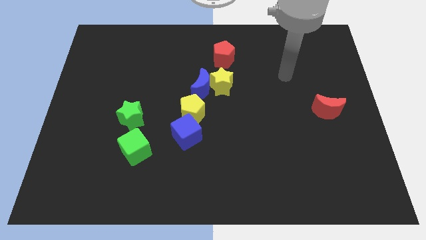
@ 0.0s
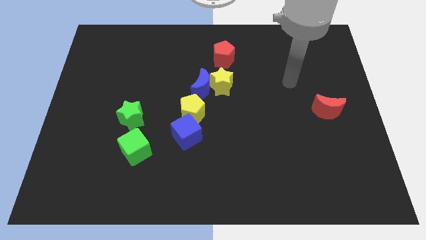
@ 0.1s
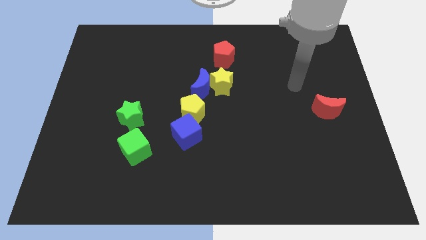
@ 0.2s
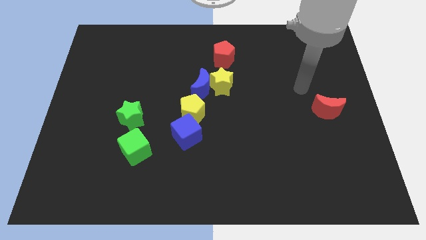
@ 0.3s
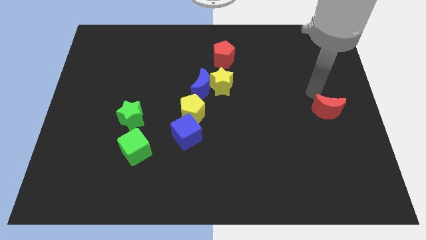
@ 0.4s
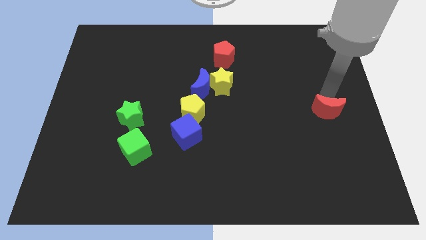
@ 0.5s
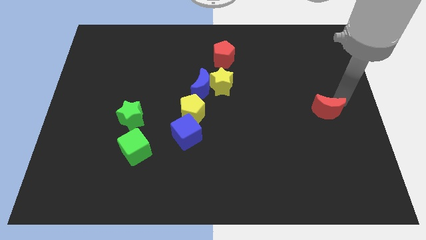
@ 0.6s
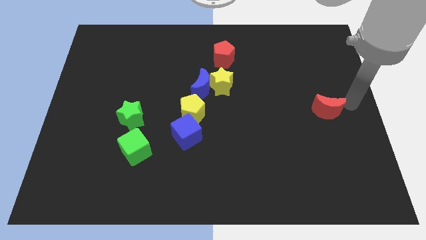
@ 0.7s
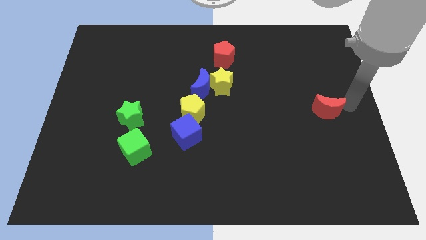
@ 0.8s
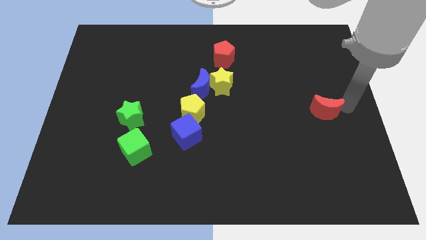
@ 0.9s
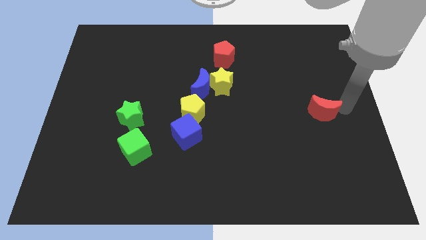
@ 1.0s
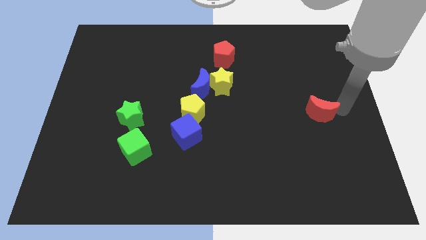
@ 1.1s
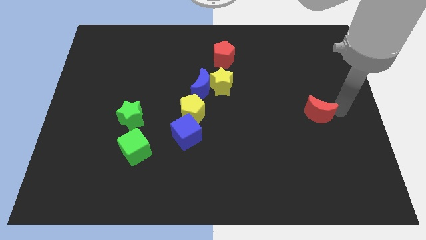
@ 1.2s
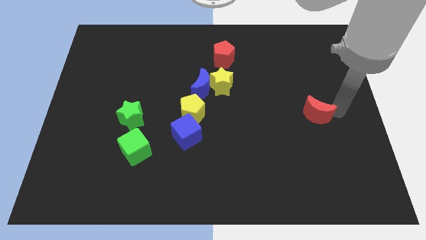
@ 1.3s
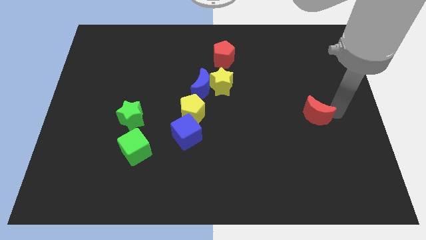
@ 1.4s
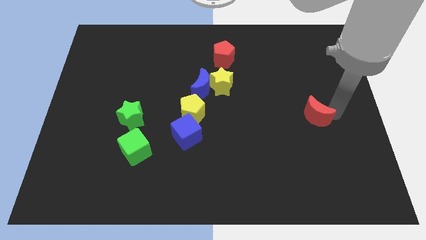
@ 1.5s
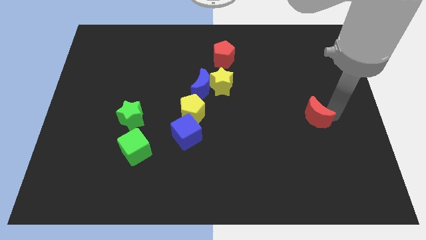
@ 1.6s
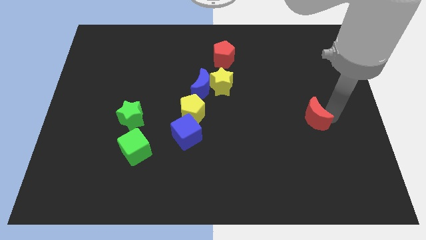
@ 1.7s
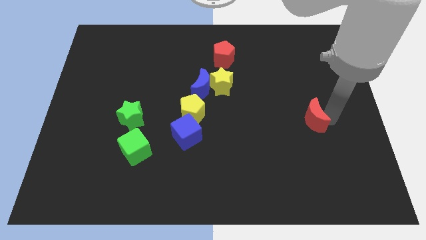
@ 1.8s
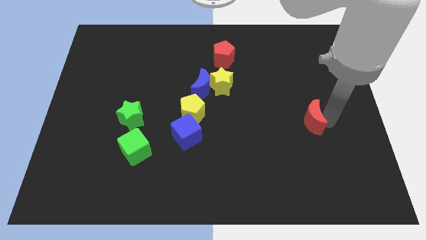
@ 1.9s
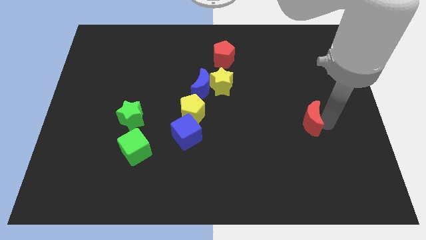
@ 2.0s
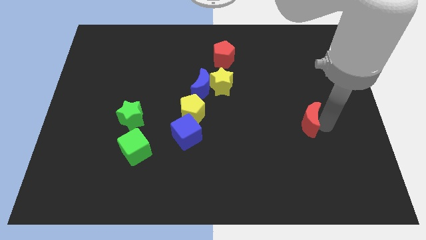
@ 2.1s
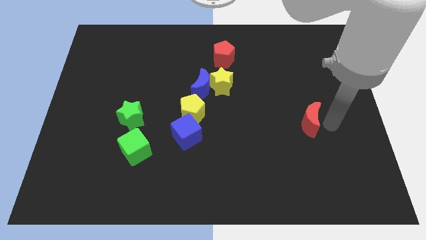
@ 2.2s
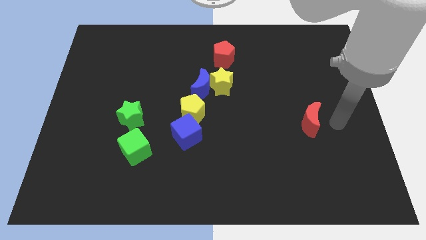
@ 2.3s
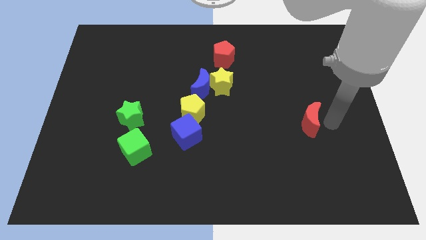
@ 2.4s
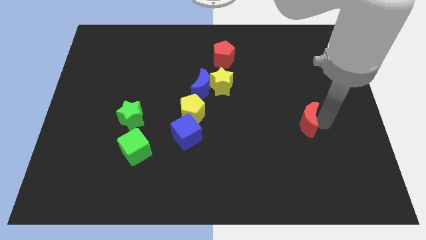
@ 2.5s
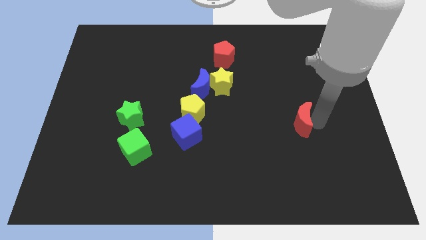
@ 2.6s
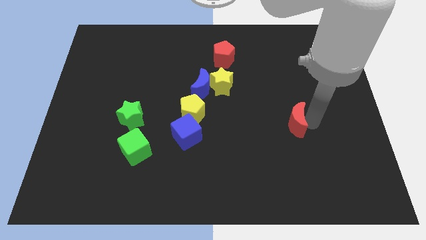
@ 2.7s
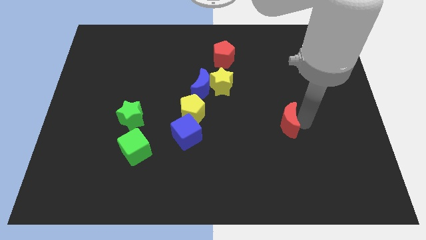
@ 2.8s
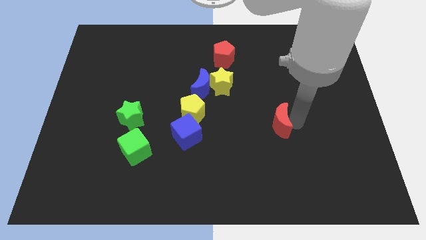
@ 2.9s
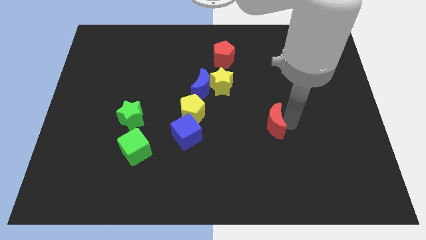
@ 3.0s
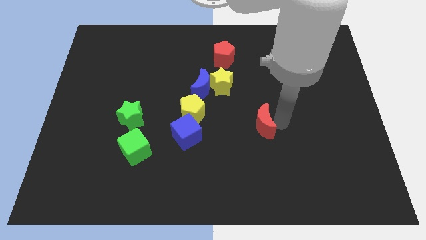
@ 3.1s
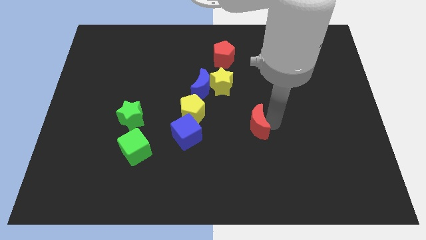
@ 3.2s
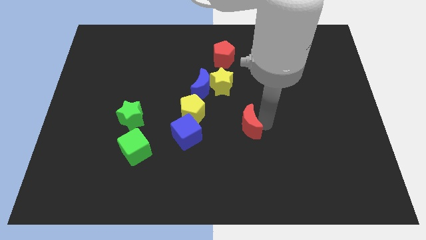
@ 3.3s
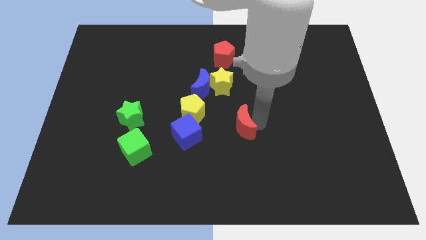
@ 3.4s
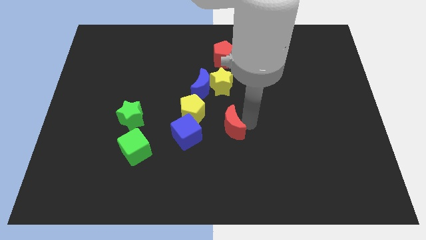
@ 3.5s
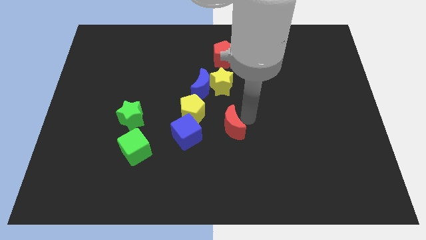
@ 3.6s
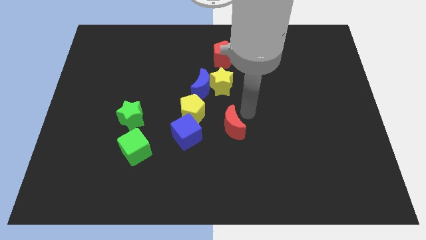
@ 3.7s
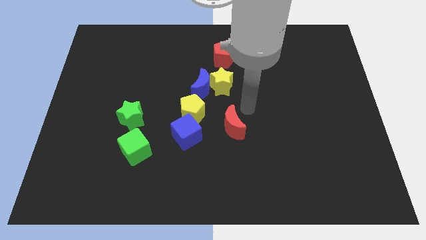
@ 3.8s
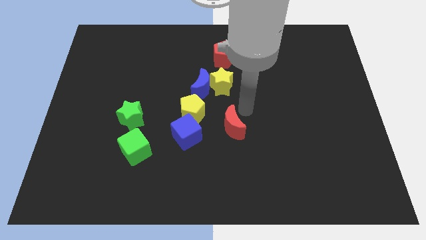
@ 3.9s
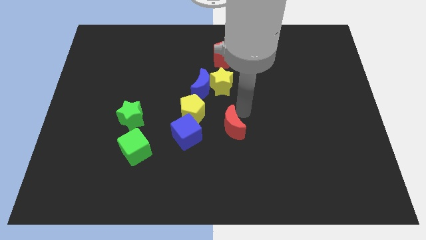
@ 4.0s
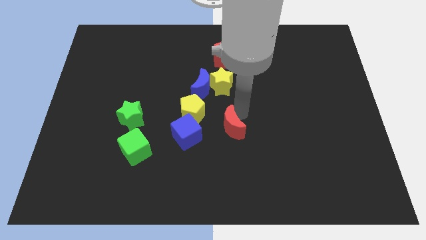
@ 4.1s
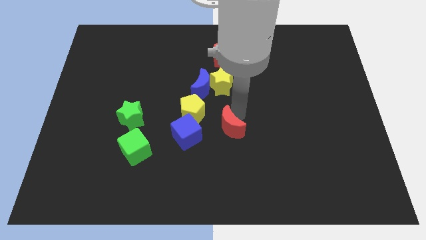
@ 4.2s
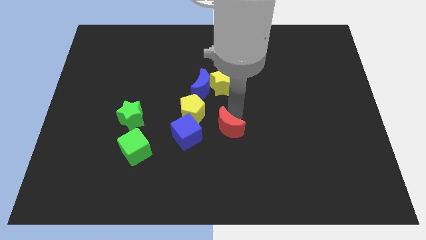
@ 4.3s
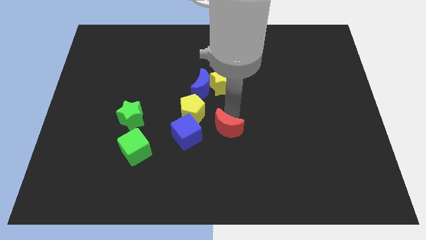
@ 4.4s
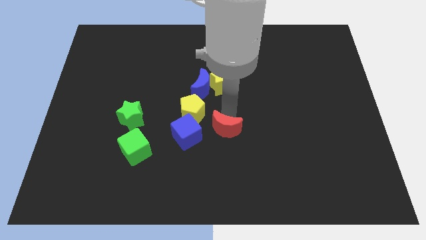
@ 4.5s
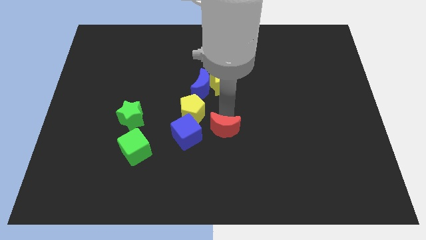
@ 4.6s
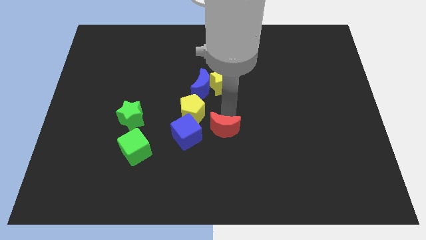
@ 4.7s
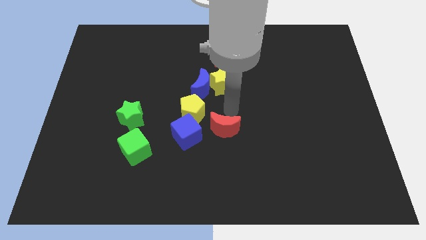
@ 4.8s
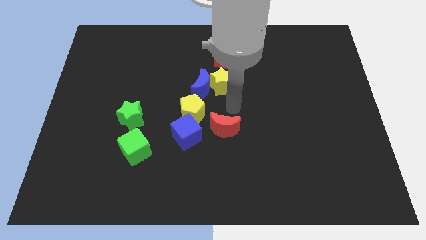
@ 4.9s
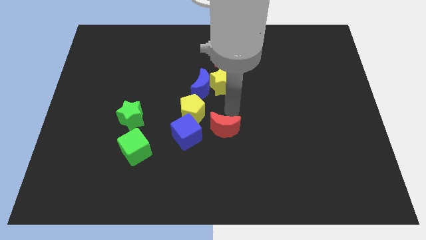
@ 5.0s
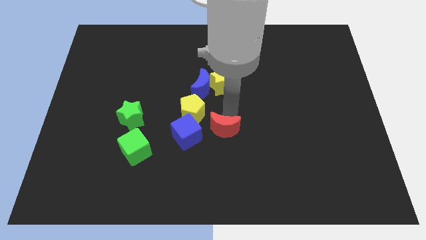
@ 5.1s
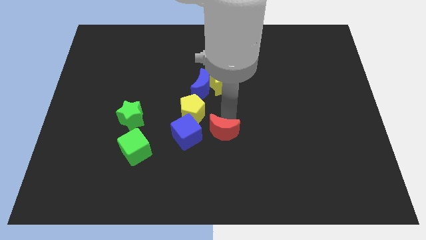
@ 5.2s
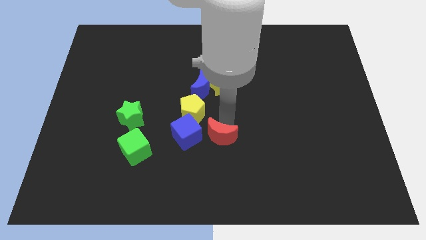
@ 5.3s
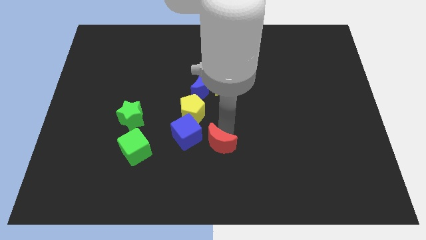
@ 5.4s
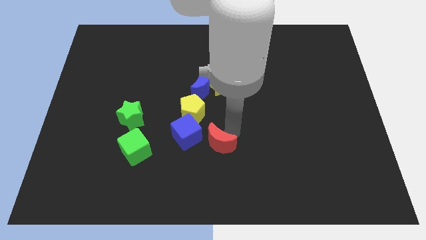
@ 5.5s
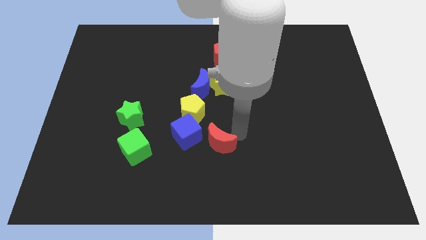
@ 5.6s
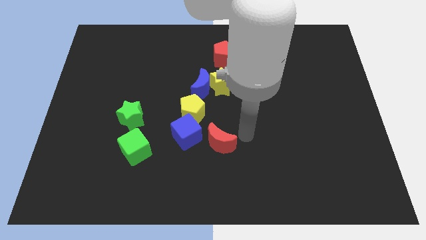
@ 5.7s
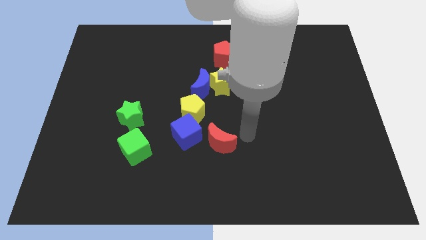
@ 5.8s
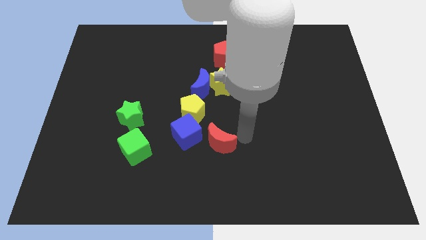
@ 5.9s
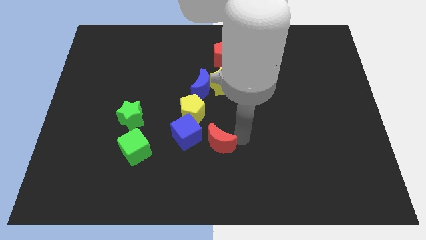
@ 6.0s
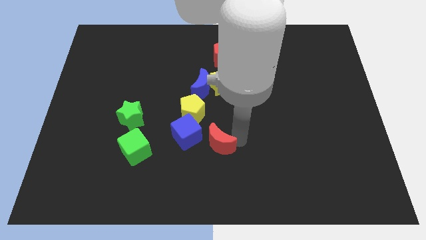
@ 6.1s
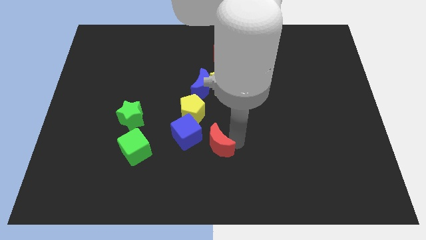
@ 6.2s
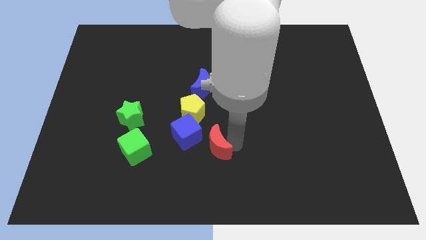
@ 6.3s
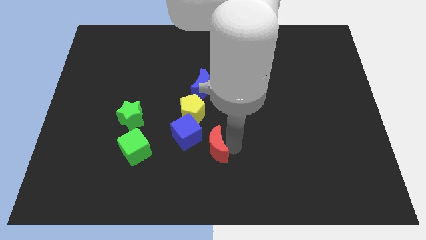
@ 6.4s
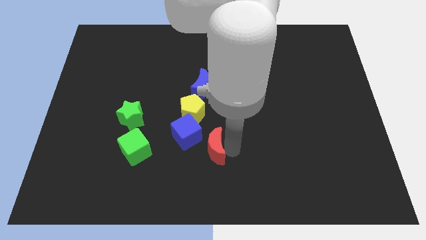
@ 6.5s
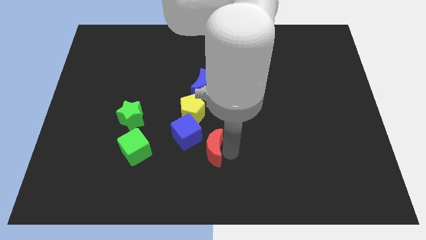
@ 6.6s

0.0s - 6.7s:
put the red moon below the yellow pentagon

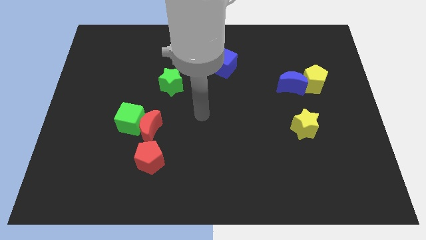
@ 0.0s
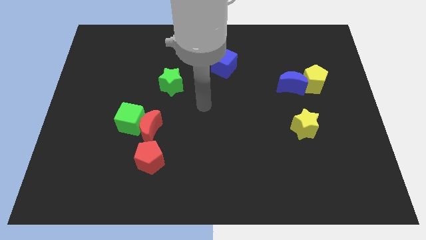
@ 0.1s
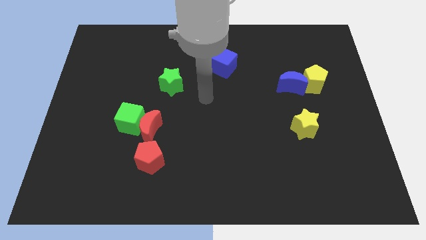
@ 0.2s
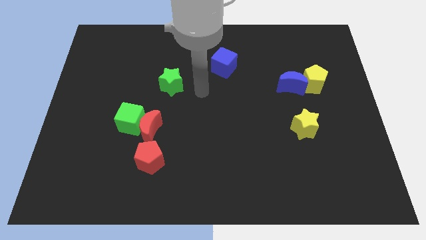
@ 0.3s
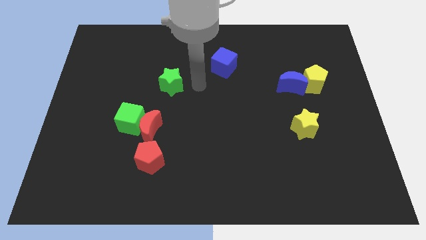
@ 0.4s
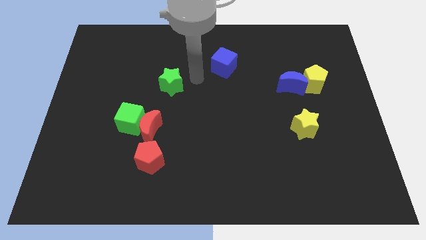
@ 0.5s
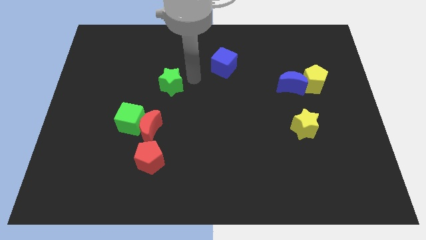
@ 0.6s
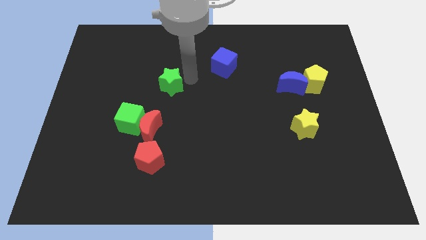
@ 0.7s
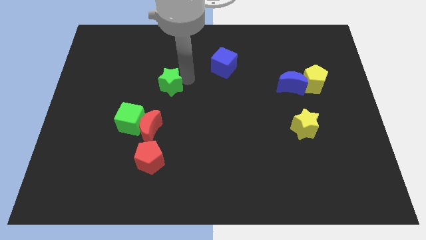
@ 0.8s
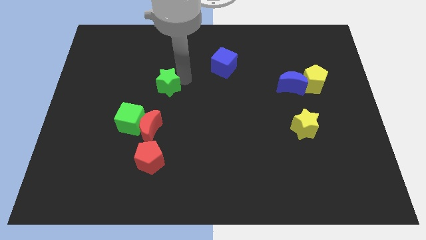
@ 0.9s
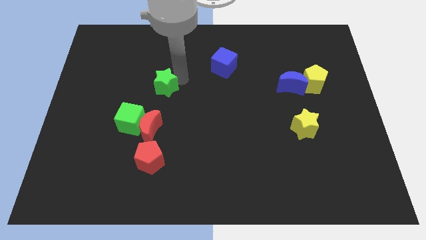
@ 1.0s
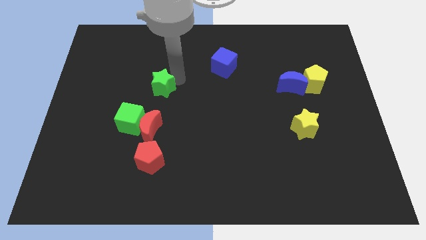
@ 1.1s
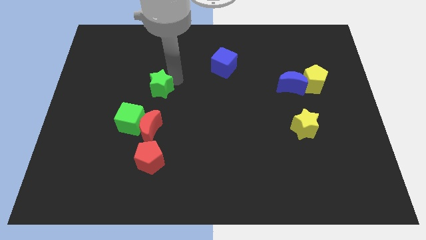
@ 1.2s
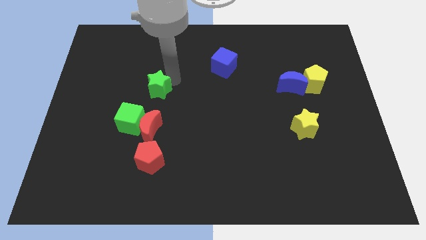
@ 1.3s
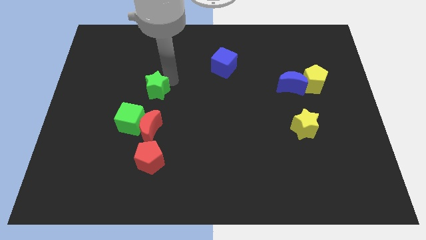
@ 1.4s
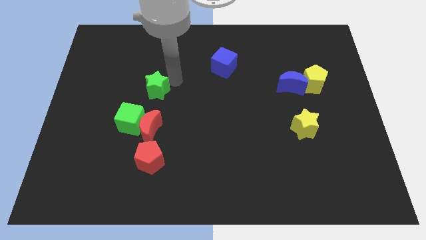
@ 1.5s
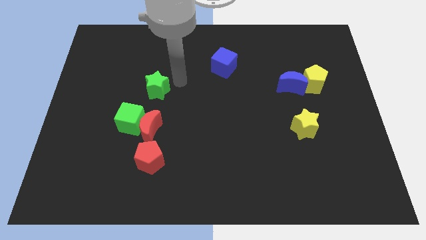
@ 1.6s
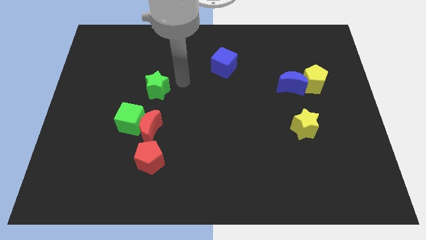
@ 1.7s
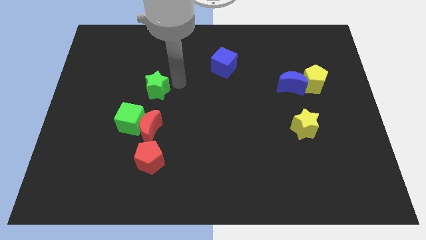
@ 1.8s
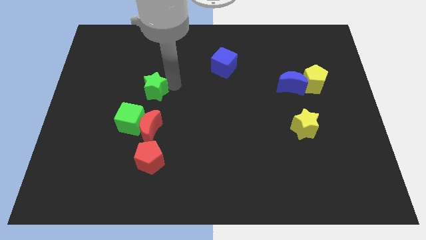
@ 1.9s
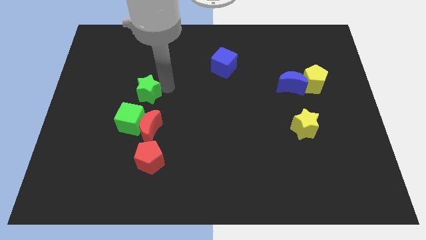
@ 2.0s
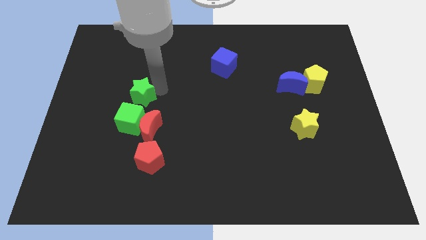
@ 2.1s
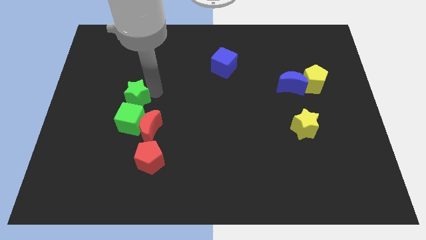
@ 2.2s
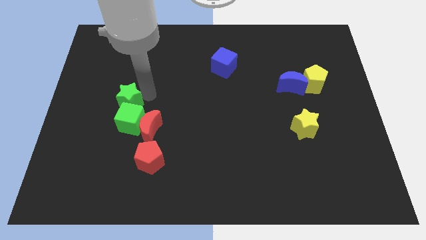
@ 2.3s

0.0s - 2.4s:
slide the green star to the top left side of the green cube

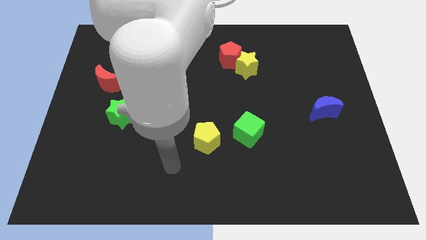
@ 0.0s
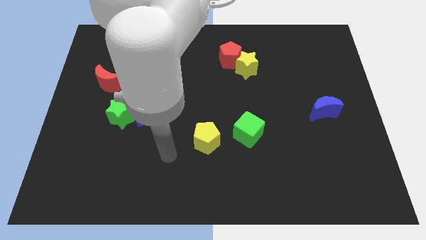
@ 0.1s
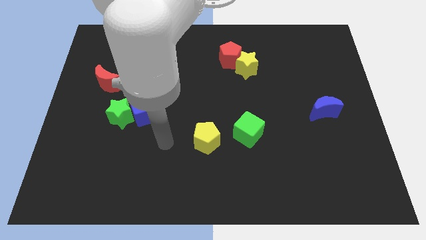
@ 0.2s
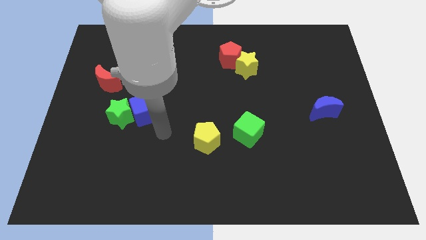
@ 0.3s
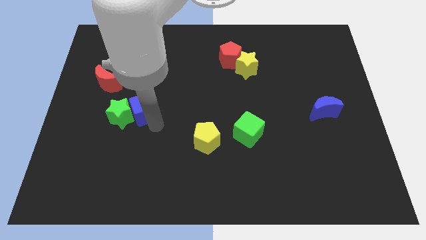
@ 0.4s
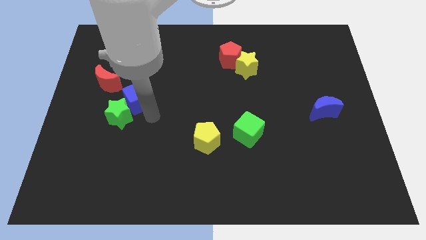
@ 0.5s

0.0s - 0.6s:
slide the green star to the bottom of the red moon
